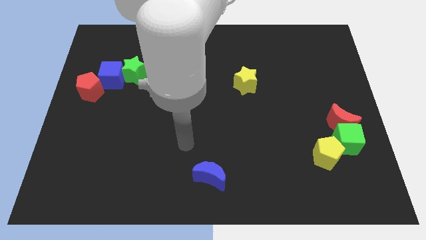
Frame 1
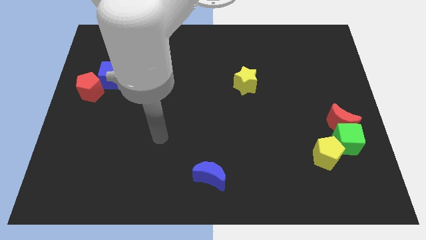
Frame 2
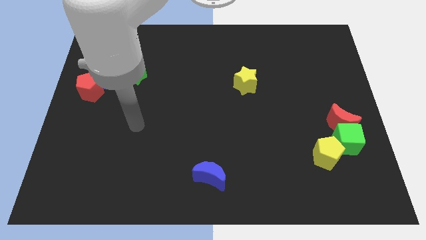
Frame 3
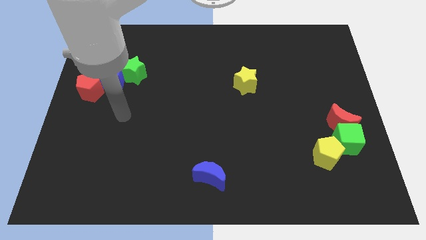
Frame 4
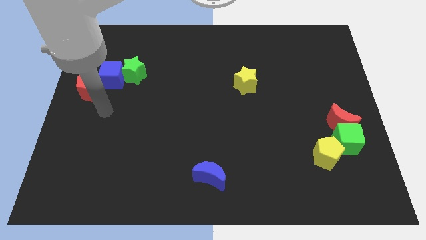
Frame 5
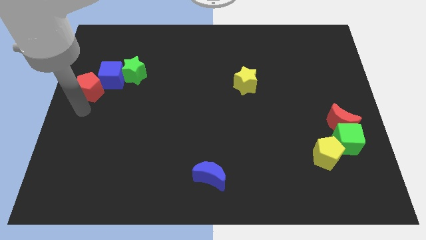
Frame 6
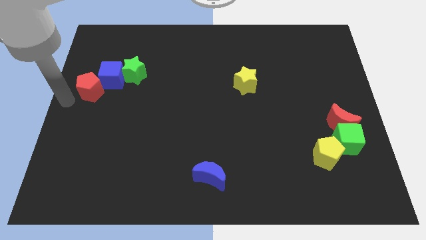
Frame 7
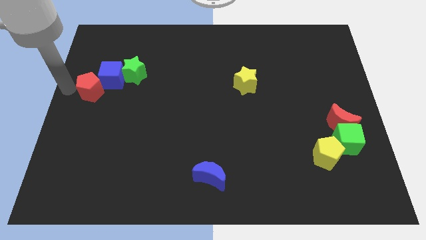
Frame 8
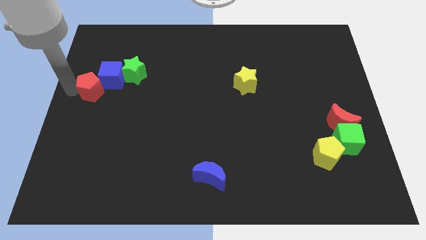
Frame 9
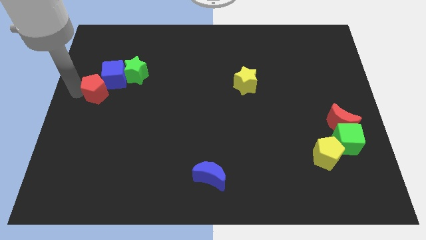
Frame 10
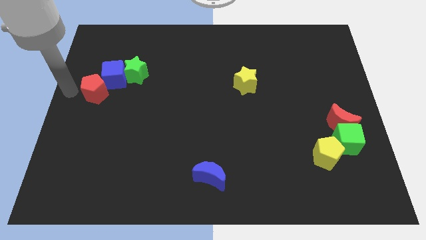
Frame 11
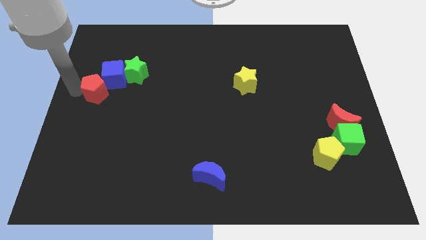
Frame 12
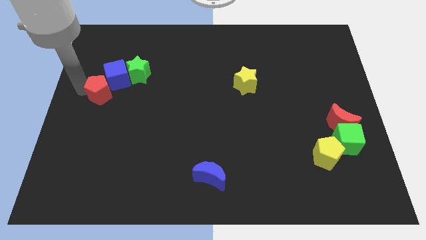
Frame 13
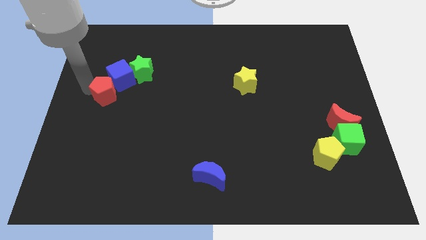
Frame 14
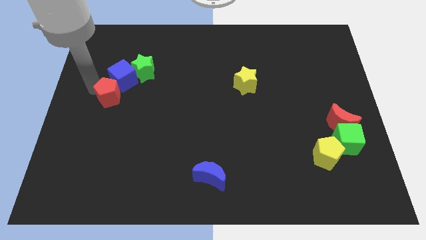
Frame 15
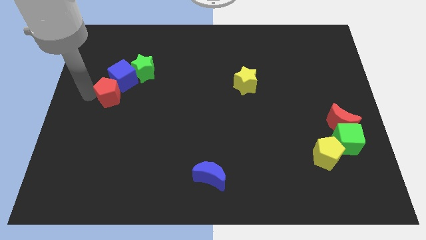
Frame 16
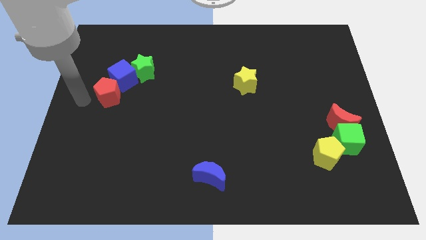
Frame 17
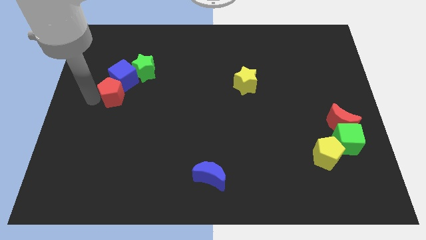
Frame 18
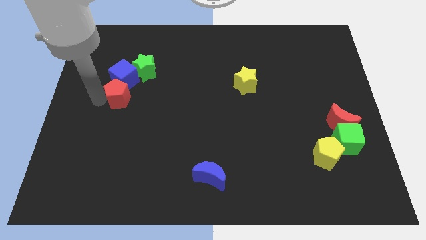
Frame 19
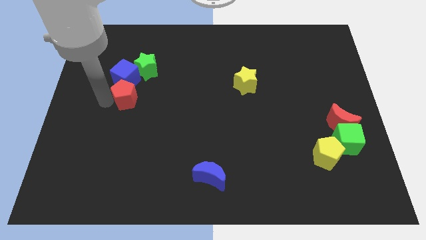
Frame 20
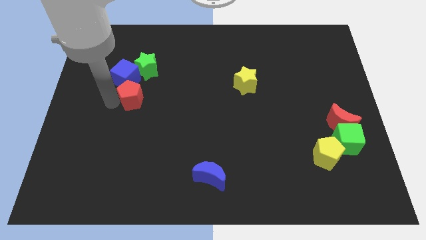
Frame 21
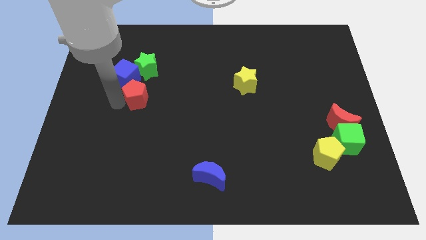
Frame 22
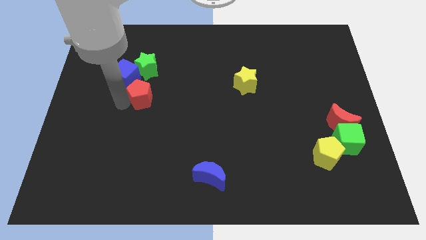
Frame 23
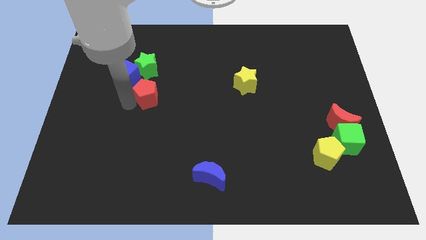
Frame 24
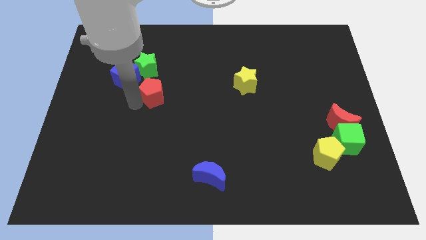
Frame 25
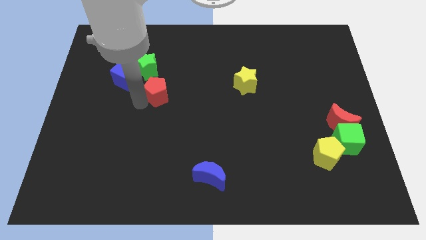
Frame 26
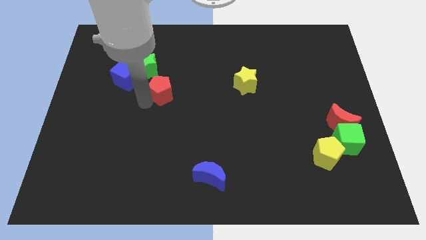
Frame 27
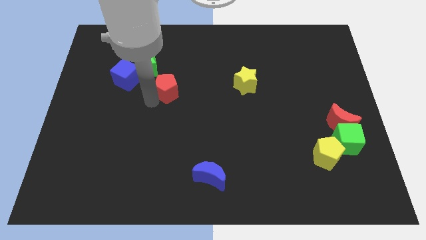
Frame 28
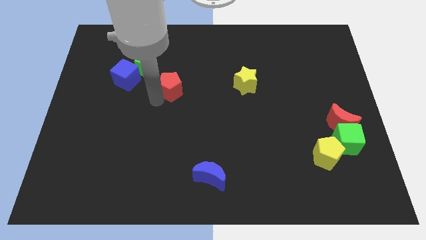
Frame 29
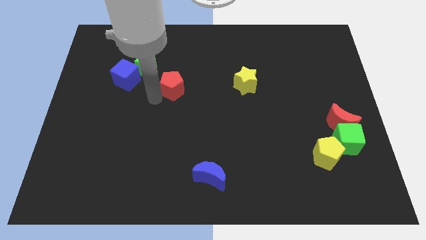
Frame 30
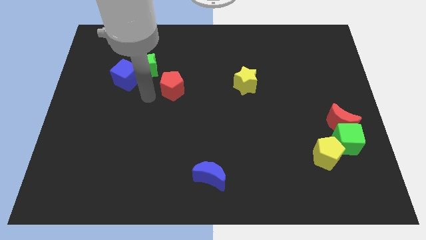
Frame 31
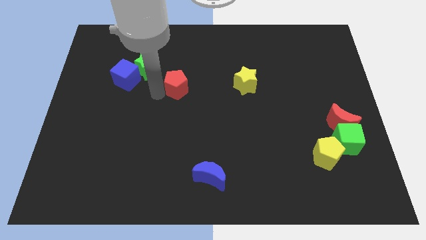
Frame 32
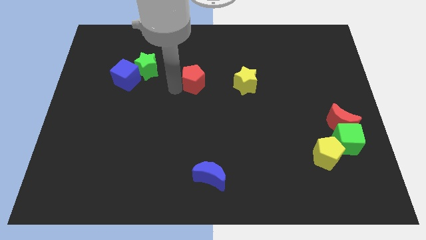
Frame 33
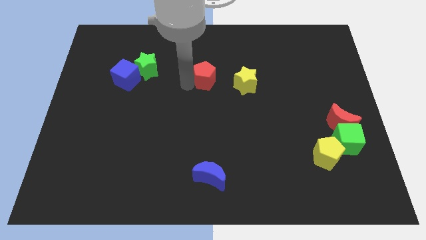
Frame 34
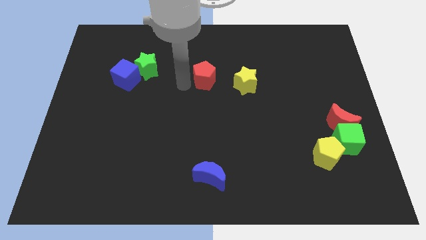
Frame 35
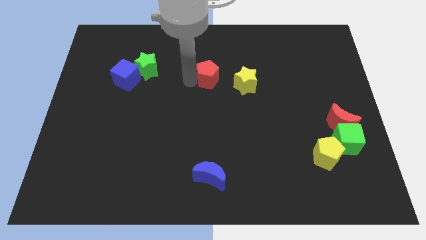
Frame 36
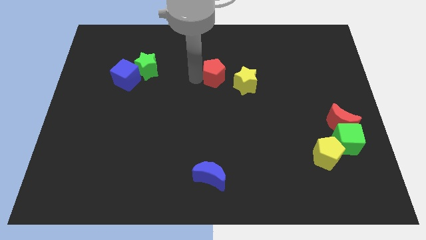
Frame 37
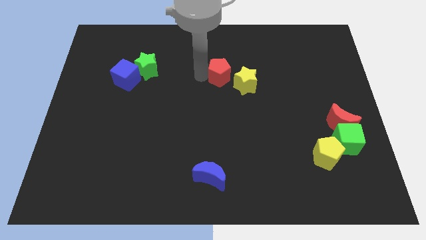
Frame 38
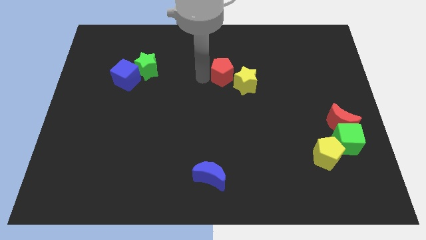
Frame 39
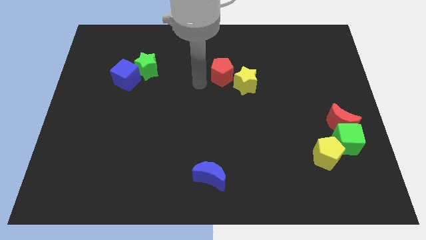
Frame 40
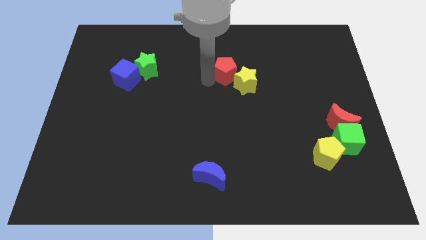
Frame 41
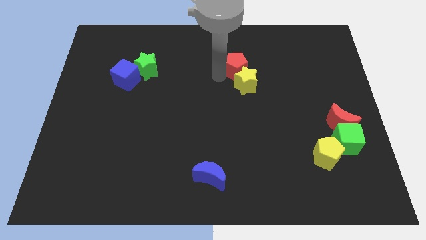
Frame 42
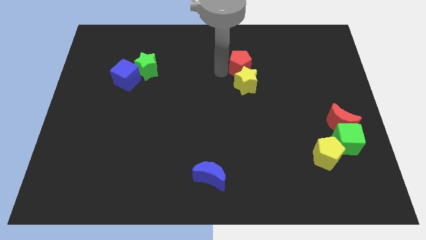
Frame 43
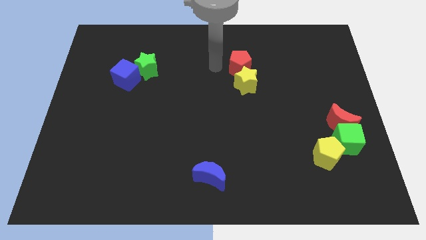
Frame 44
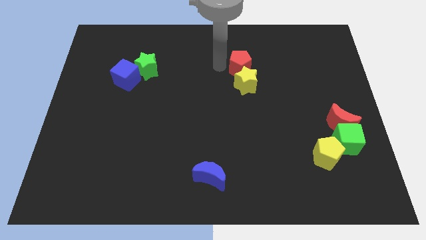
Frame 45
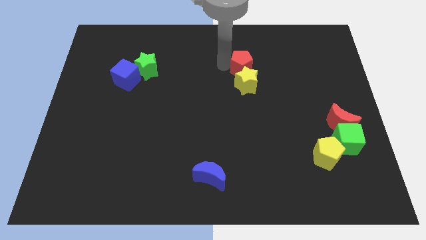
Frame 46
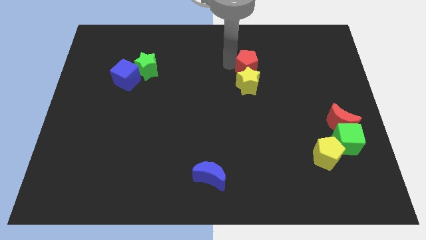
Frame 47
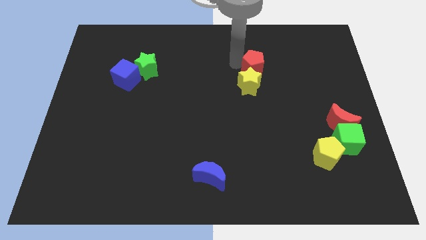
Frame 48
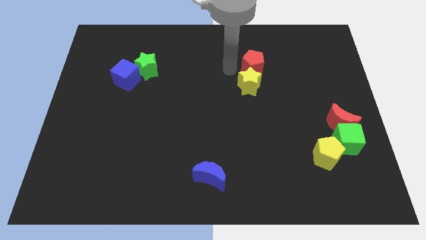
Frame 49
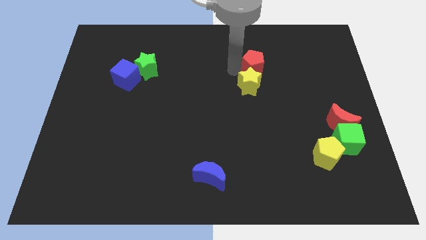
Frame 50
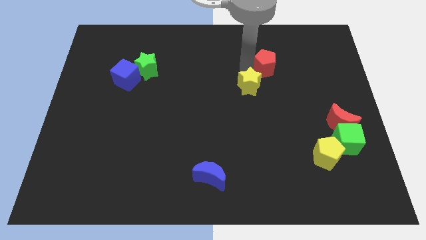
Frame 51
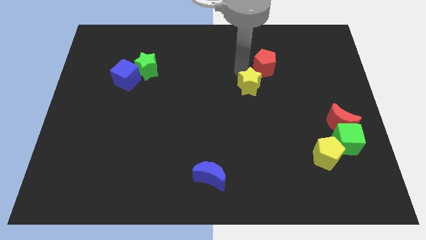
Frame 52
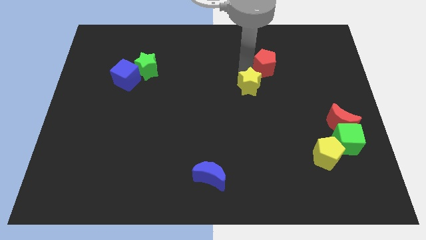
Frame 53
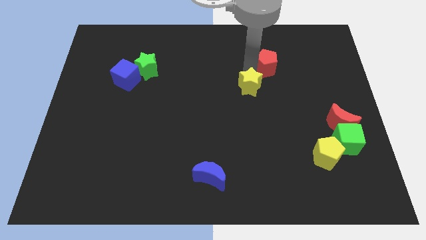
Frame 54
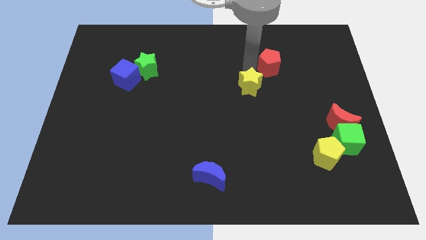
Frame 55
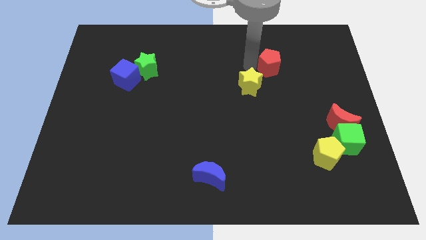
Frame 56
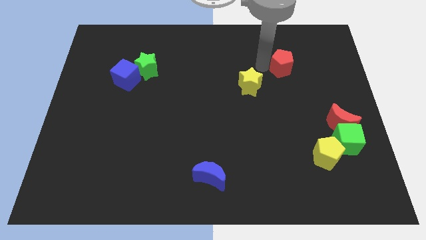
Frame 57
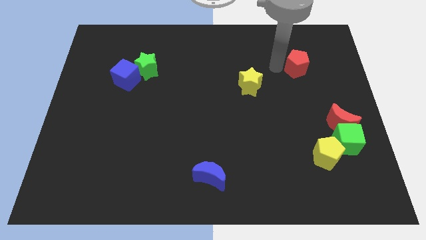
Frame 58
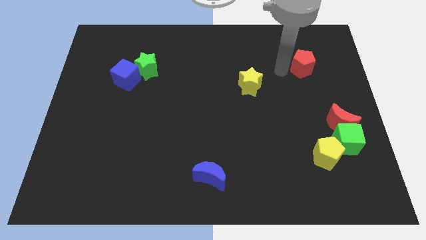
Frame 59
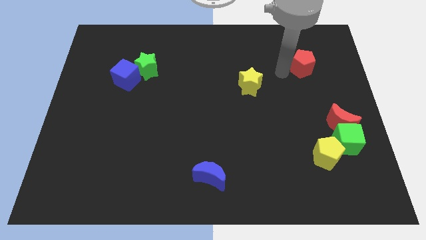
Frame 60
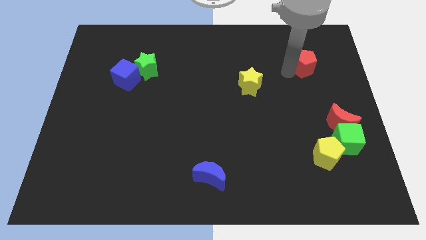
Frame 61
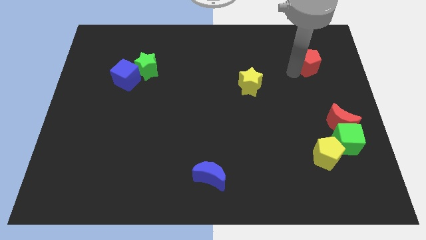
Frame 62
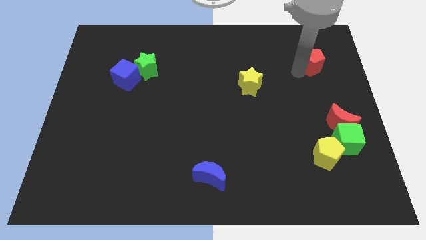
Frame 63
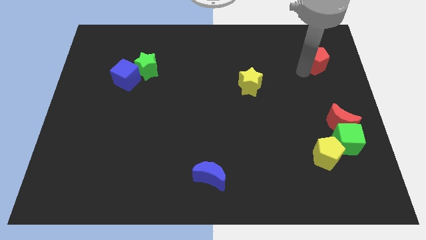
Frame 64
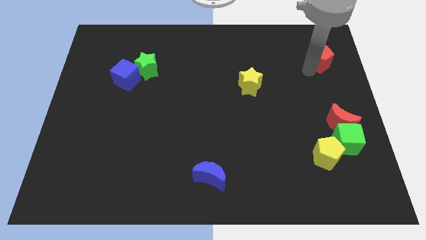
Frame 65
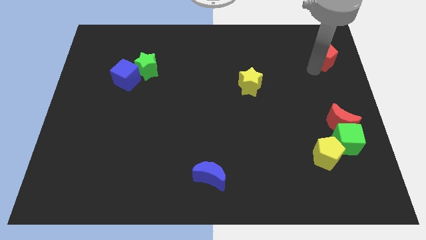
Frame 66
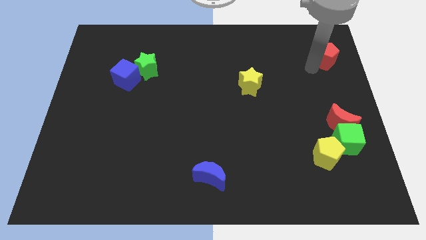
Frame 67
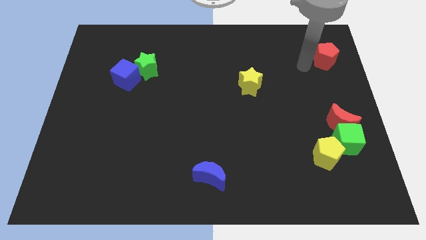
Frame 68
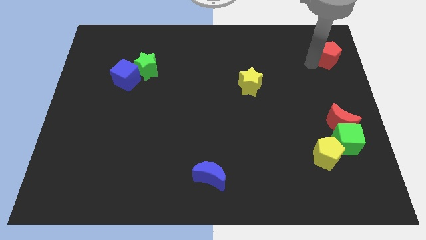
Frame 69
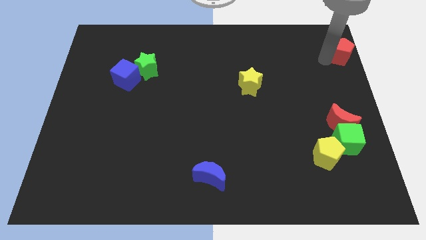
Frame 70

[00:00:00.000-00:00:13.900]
slide the red pentagon to the top right
